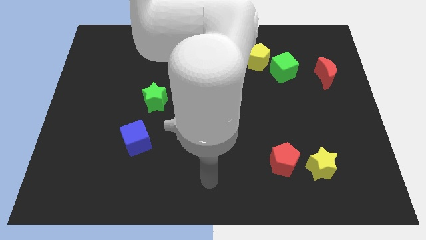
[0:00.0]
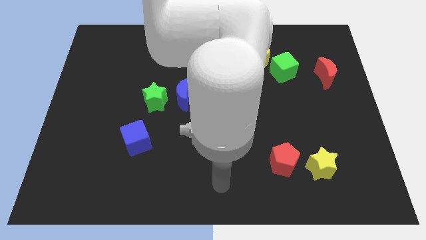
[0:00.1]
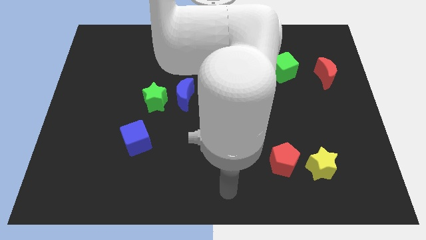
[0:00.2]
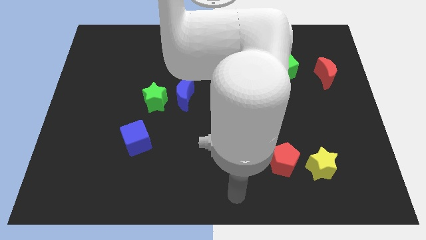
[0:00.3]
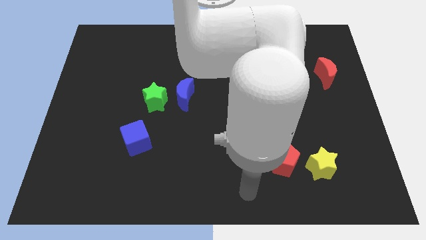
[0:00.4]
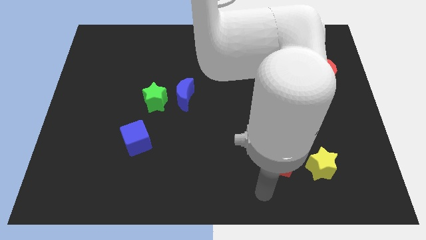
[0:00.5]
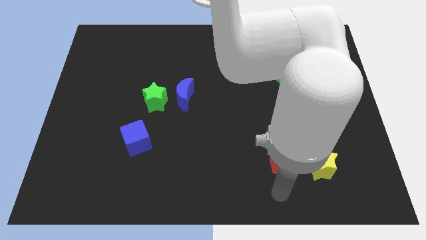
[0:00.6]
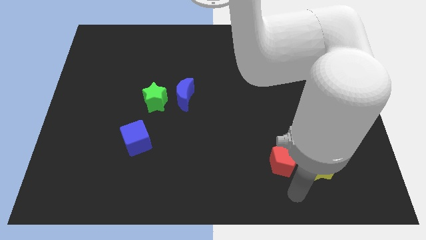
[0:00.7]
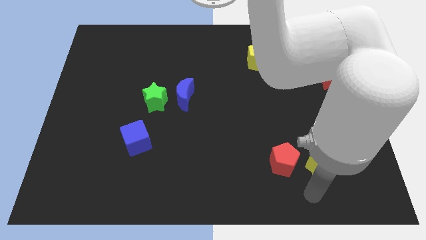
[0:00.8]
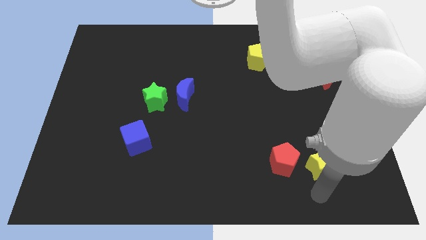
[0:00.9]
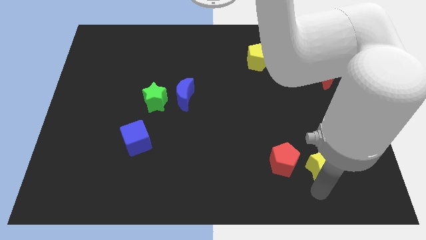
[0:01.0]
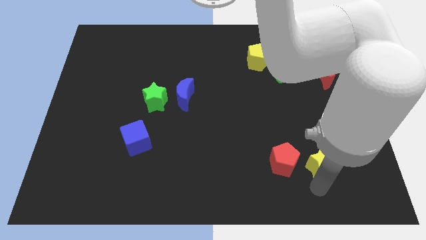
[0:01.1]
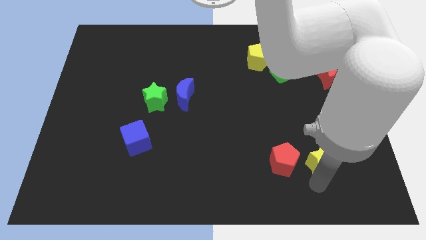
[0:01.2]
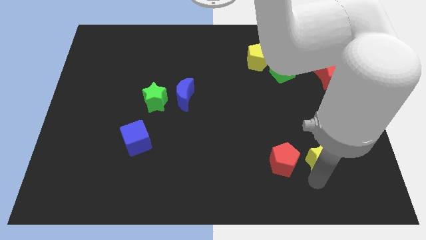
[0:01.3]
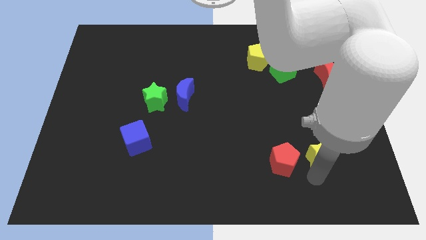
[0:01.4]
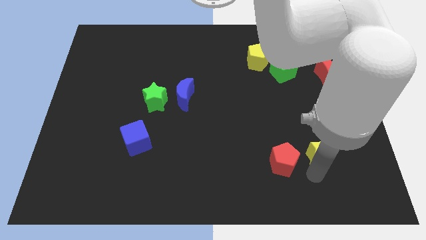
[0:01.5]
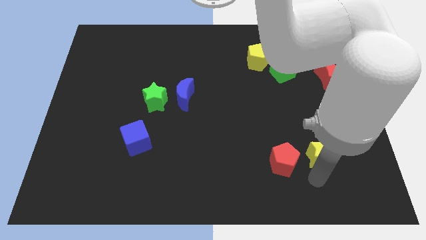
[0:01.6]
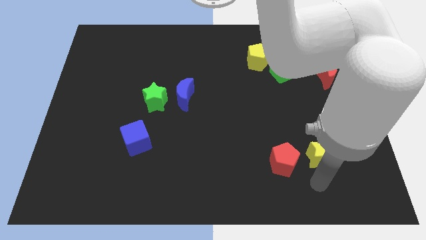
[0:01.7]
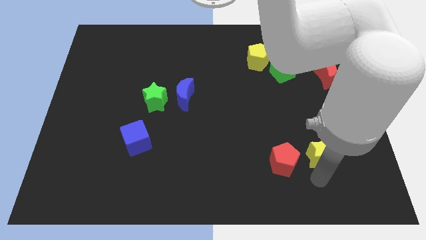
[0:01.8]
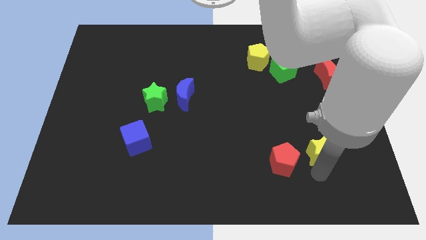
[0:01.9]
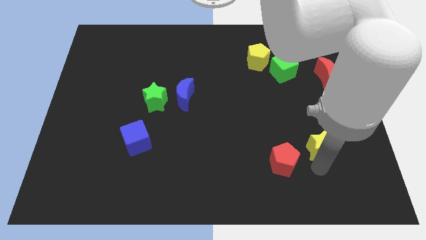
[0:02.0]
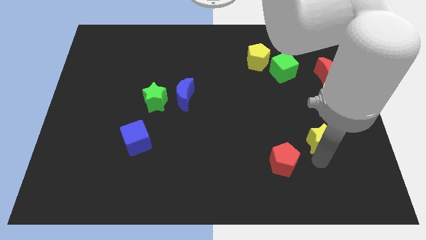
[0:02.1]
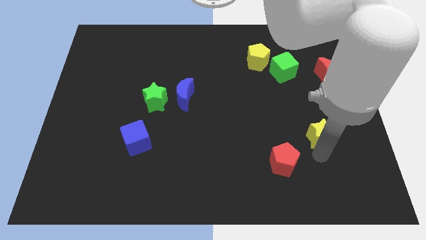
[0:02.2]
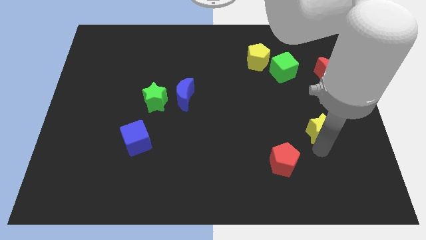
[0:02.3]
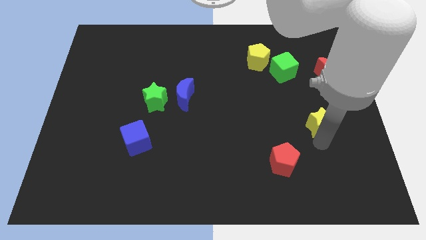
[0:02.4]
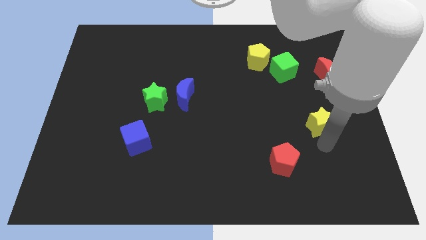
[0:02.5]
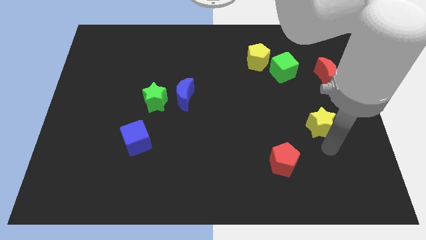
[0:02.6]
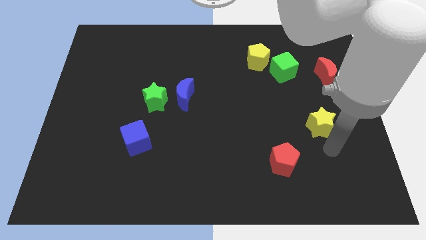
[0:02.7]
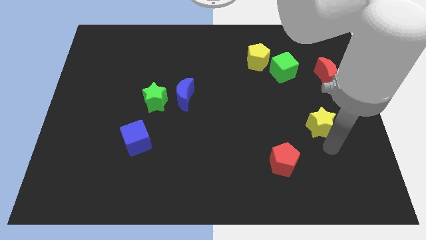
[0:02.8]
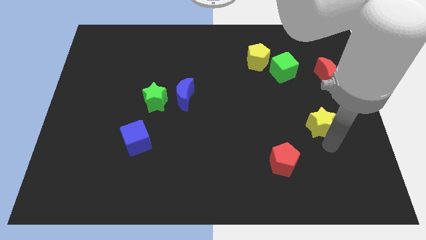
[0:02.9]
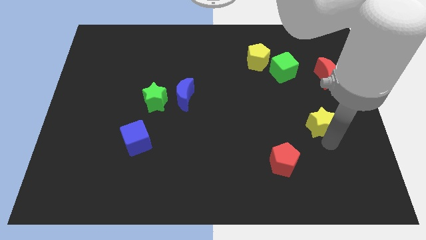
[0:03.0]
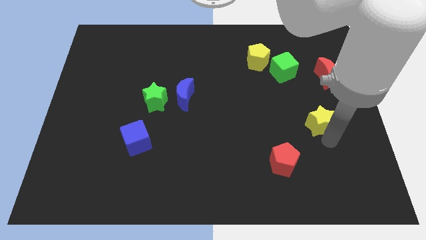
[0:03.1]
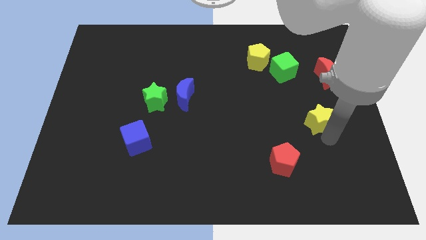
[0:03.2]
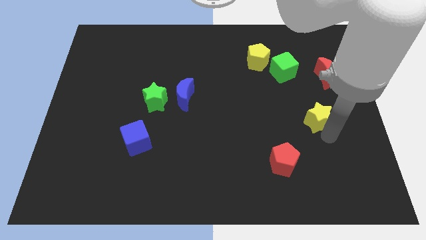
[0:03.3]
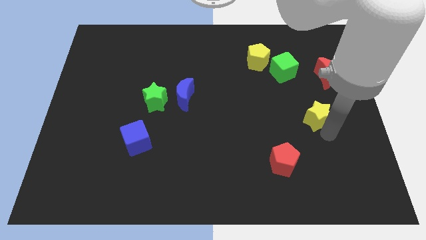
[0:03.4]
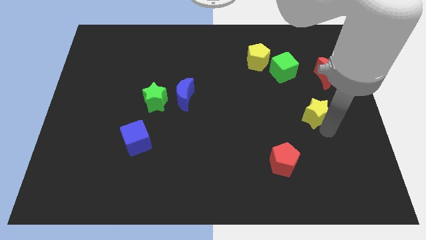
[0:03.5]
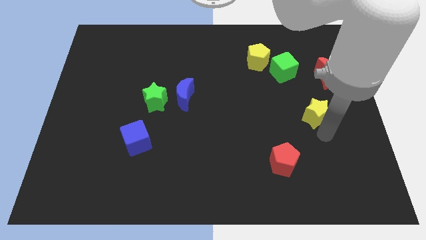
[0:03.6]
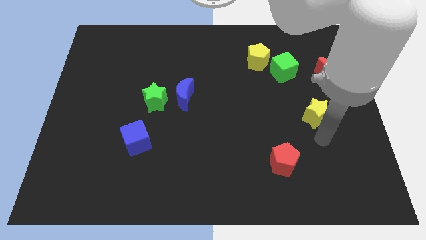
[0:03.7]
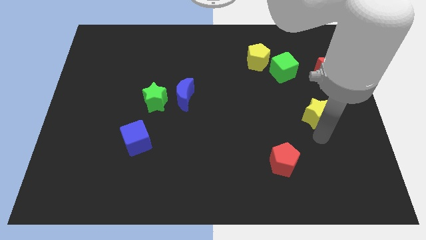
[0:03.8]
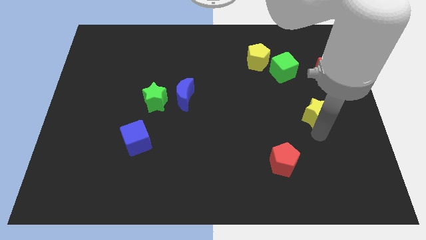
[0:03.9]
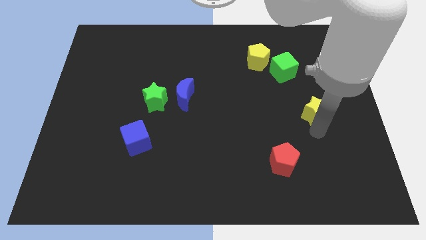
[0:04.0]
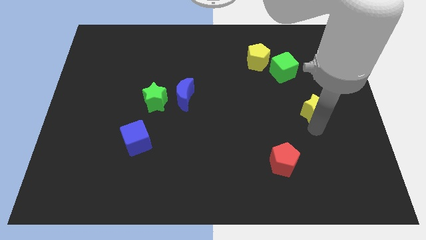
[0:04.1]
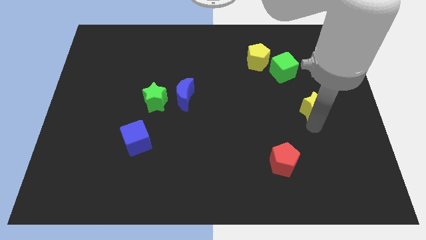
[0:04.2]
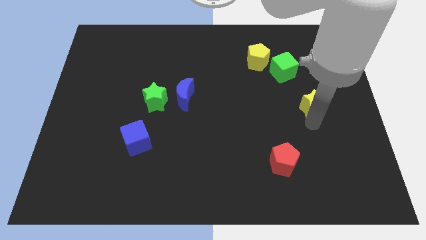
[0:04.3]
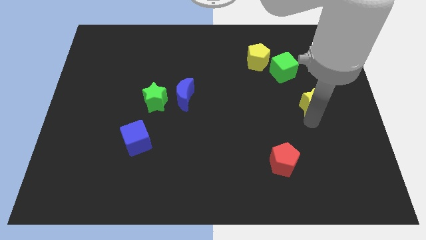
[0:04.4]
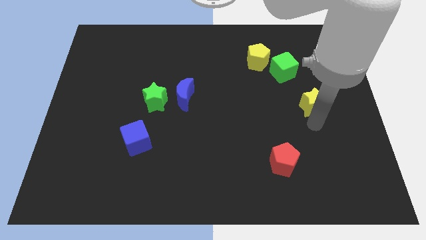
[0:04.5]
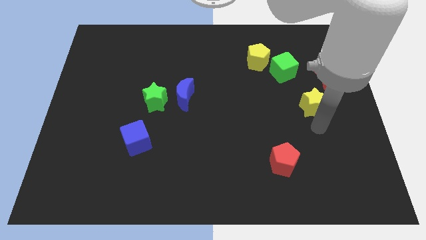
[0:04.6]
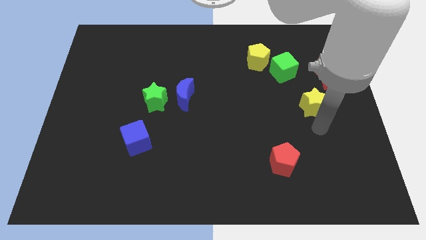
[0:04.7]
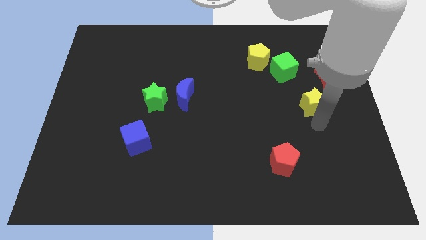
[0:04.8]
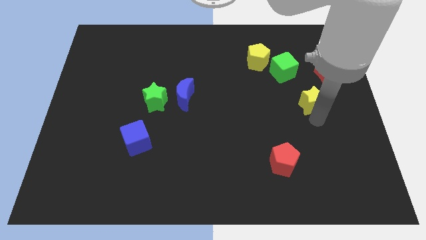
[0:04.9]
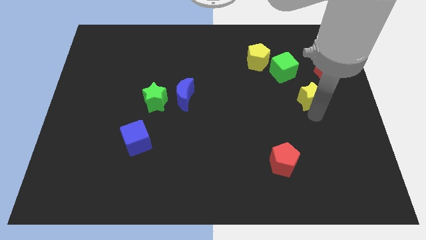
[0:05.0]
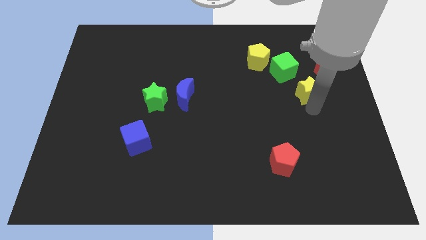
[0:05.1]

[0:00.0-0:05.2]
push the yellow star up

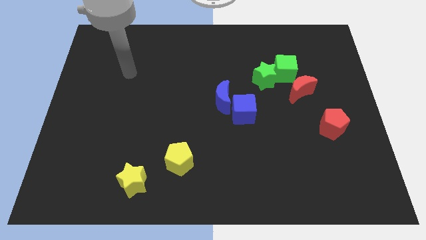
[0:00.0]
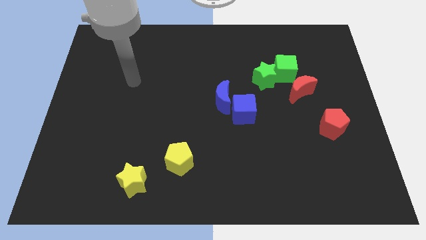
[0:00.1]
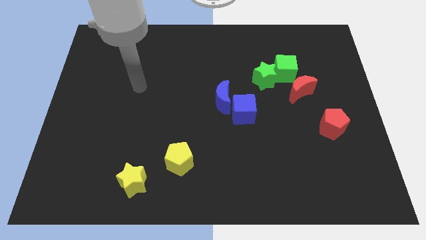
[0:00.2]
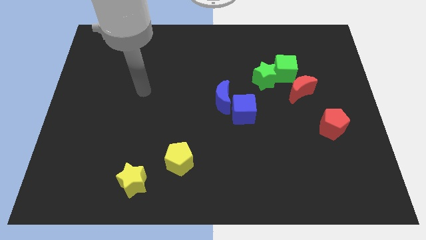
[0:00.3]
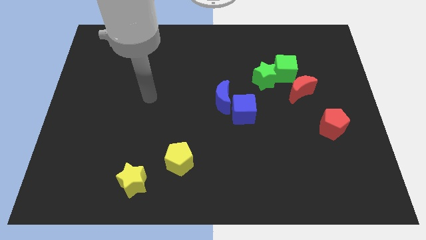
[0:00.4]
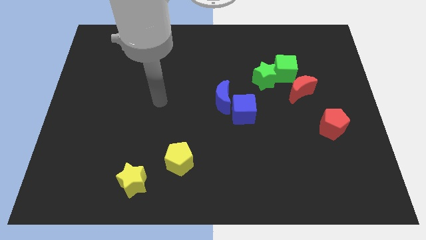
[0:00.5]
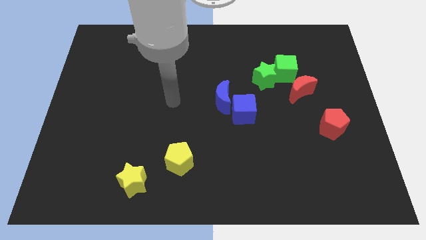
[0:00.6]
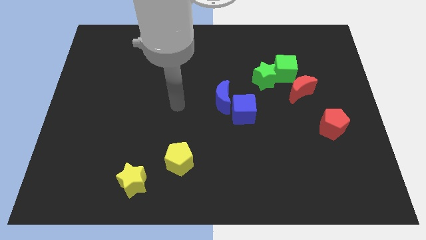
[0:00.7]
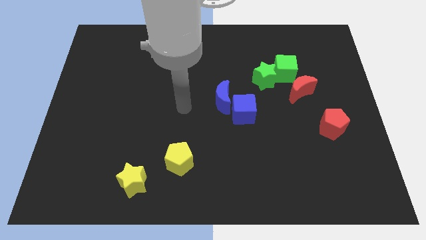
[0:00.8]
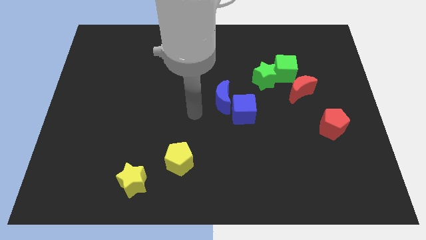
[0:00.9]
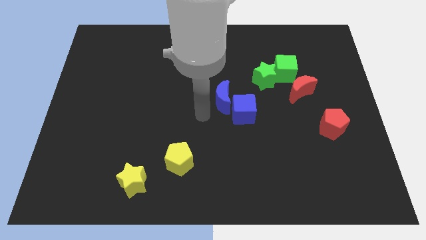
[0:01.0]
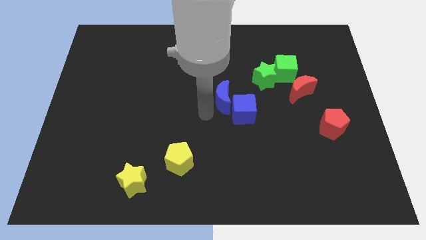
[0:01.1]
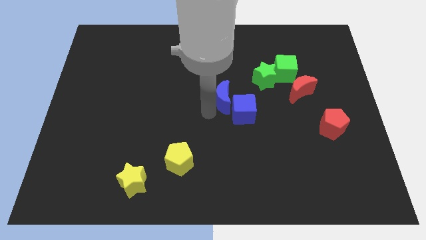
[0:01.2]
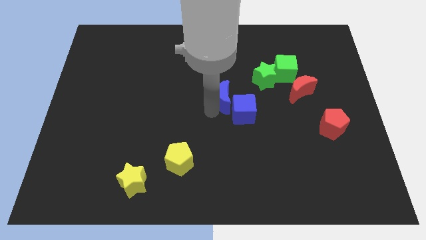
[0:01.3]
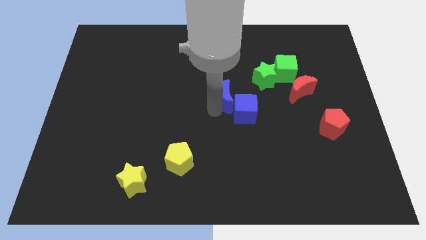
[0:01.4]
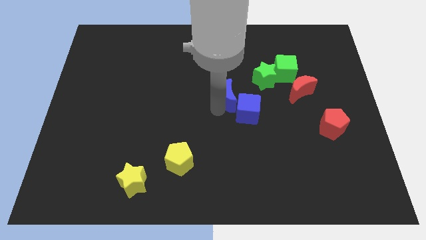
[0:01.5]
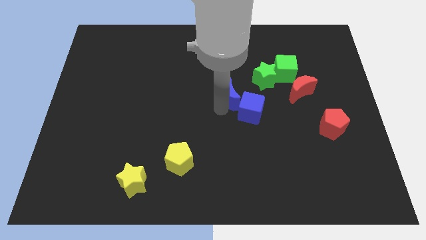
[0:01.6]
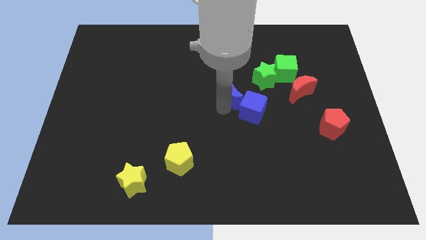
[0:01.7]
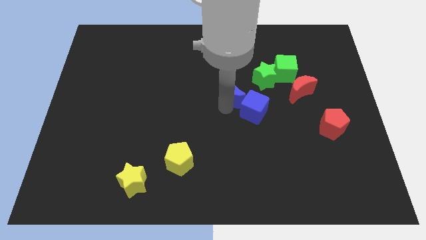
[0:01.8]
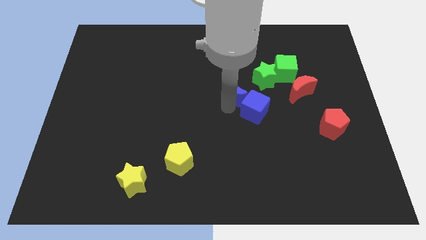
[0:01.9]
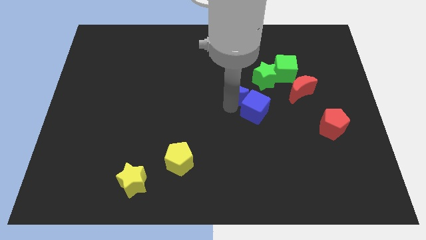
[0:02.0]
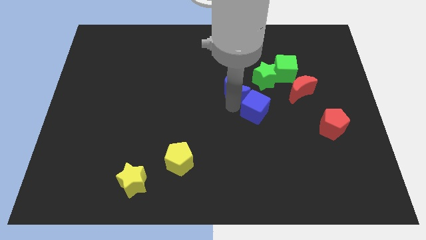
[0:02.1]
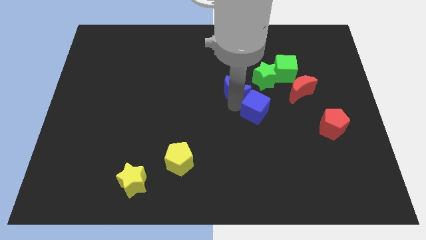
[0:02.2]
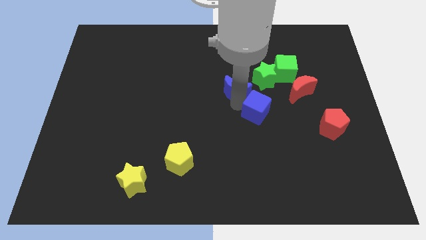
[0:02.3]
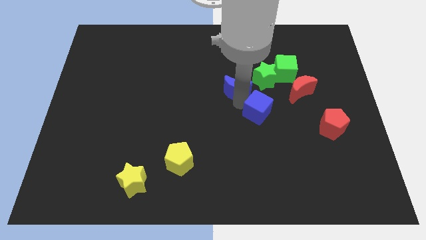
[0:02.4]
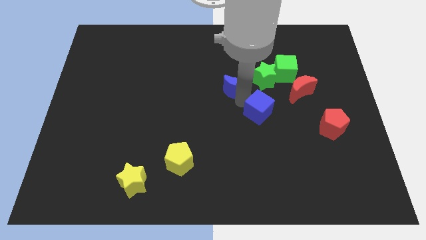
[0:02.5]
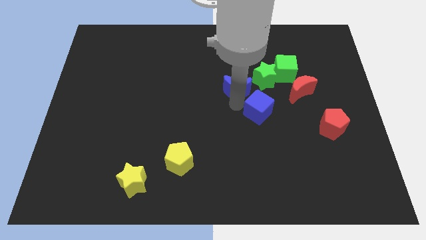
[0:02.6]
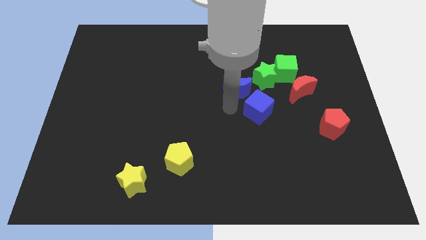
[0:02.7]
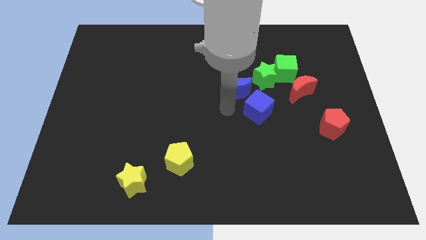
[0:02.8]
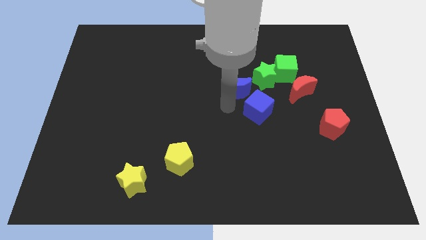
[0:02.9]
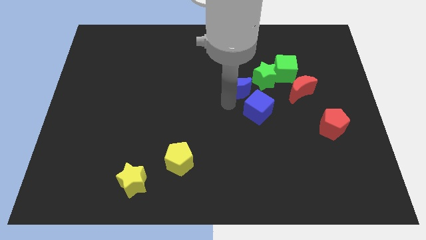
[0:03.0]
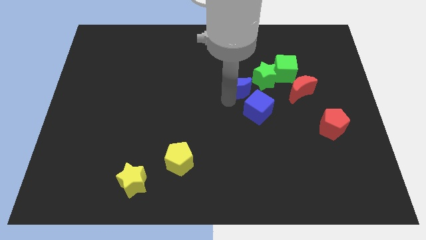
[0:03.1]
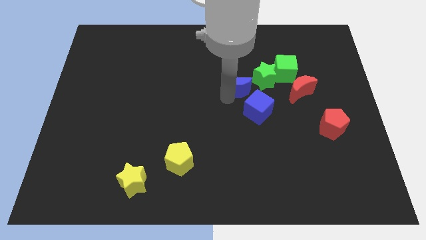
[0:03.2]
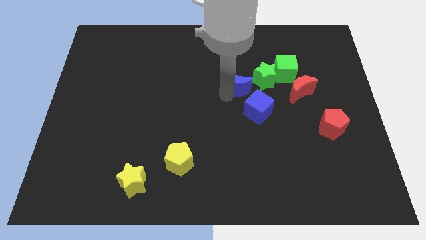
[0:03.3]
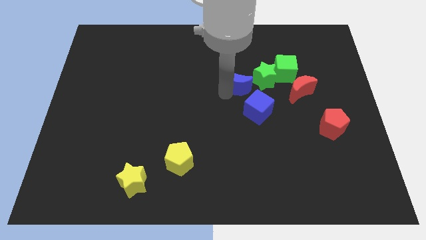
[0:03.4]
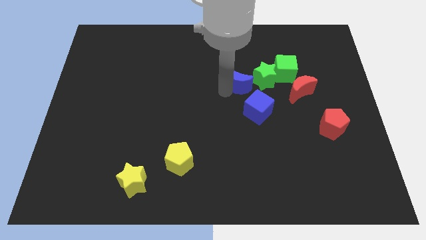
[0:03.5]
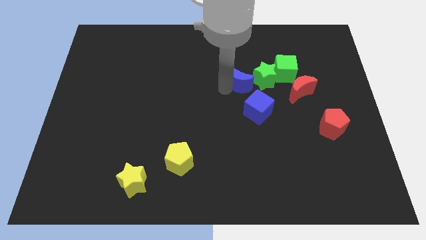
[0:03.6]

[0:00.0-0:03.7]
slightly slide the blue moon diagonally upwards and right
